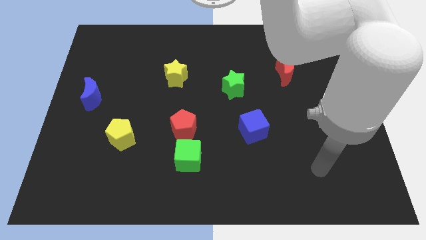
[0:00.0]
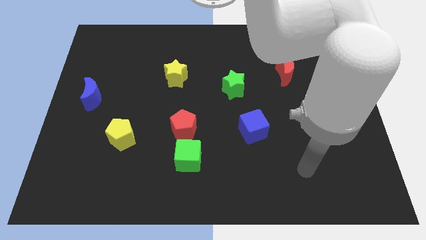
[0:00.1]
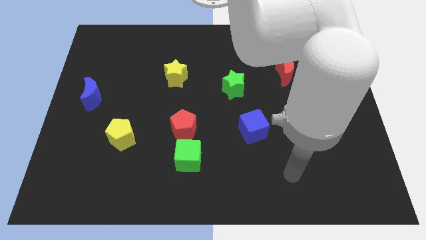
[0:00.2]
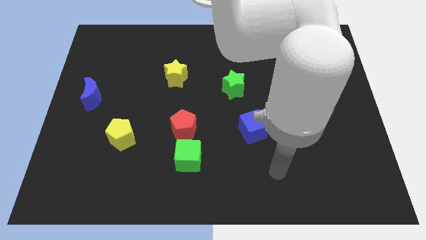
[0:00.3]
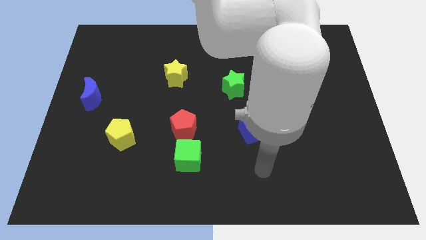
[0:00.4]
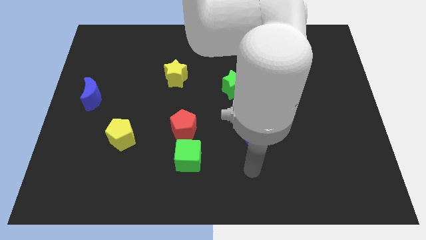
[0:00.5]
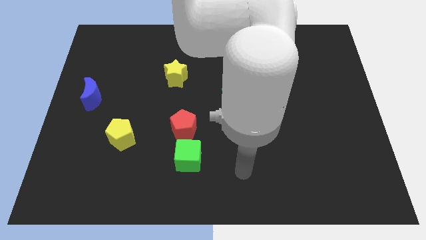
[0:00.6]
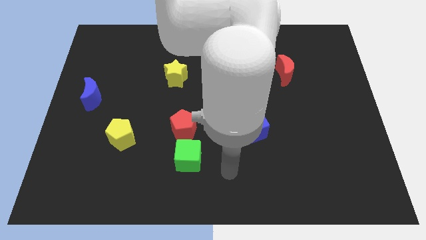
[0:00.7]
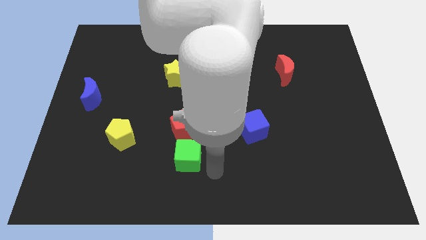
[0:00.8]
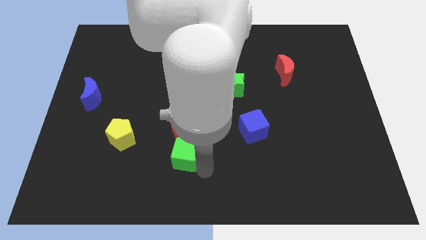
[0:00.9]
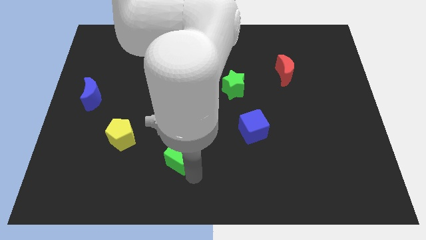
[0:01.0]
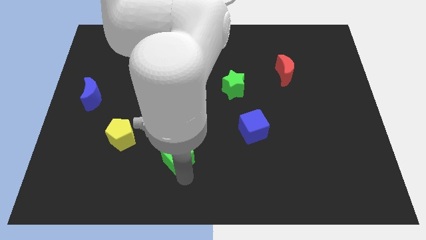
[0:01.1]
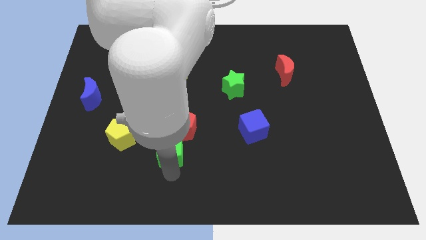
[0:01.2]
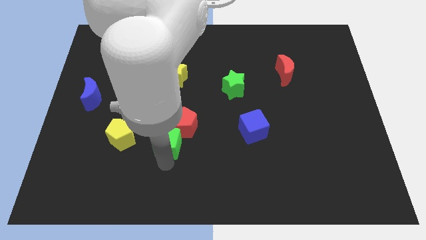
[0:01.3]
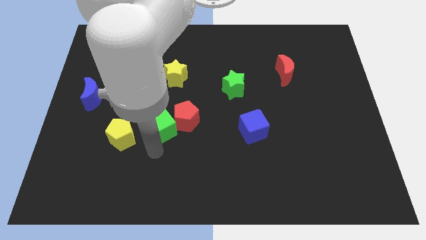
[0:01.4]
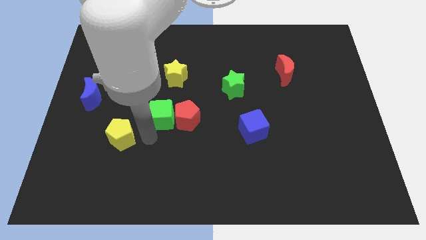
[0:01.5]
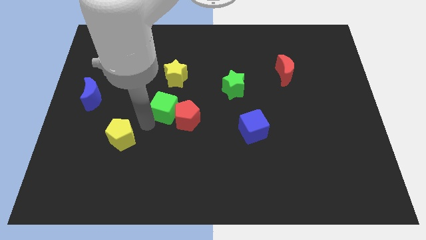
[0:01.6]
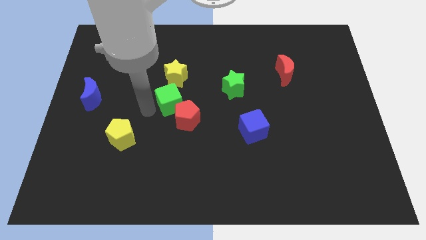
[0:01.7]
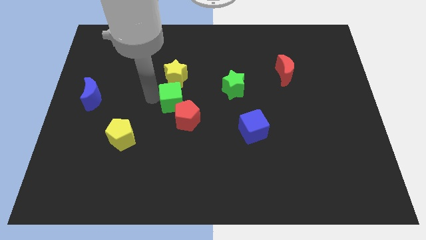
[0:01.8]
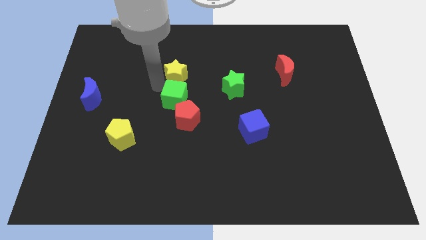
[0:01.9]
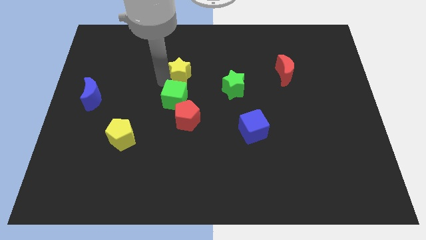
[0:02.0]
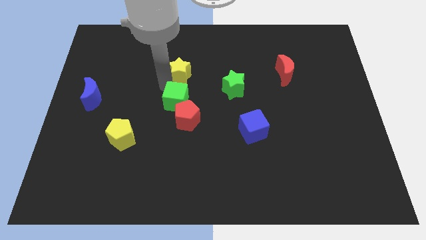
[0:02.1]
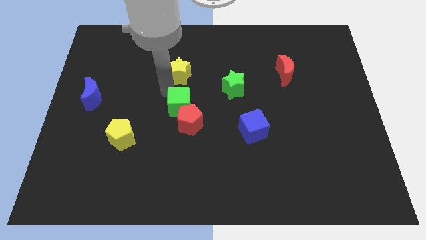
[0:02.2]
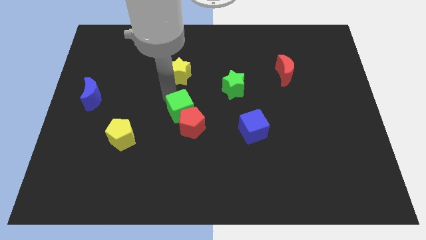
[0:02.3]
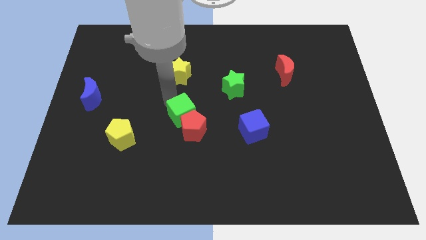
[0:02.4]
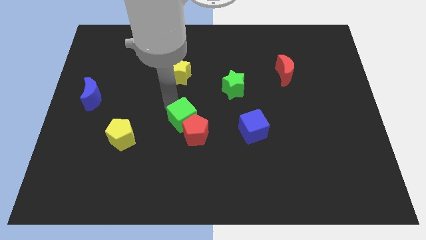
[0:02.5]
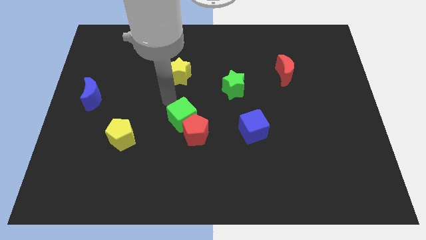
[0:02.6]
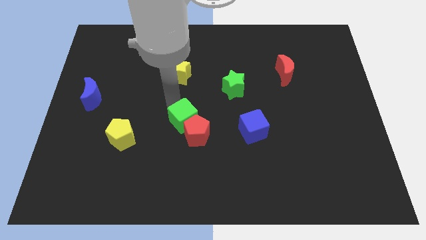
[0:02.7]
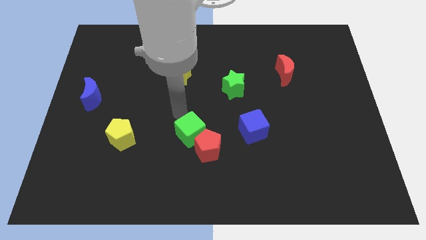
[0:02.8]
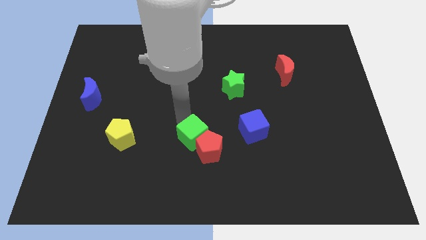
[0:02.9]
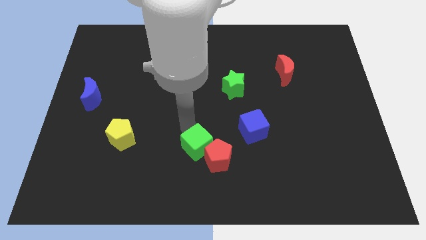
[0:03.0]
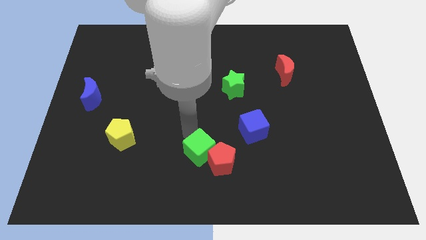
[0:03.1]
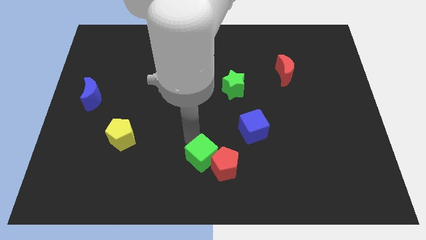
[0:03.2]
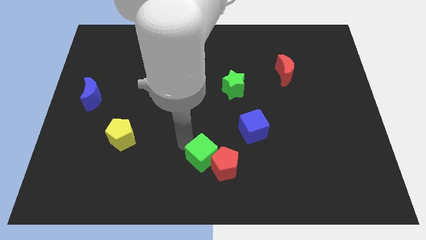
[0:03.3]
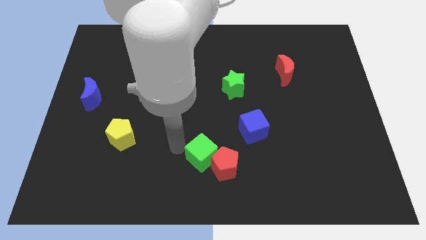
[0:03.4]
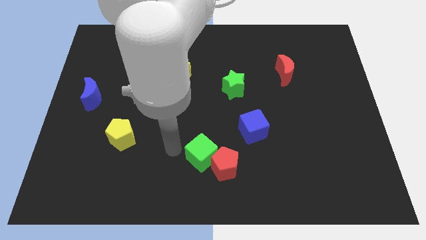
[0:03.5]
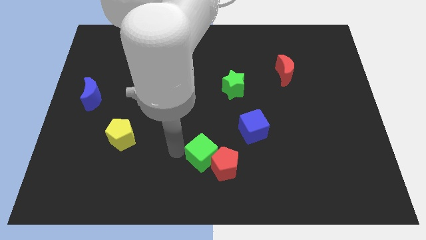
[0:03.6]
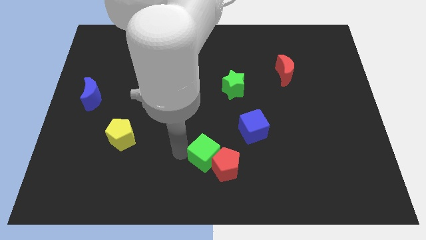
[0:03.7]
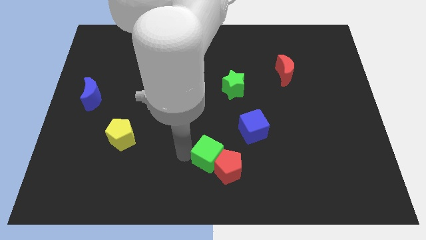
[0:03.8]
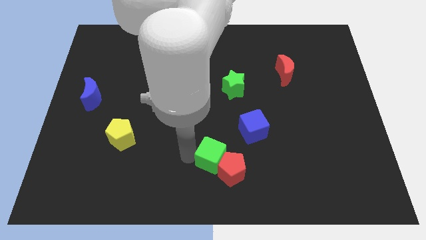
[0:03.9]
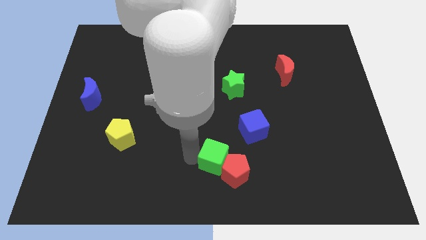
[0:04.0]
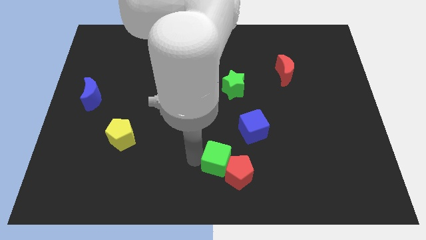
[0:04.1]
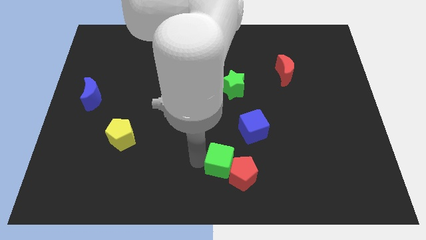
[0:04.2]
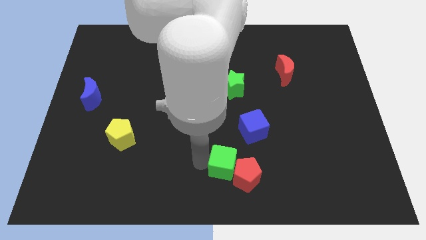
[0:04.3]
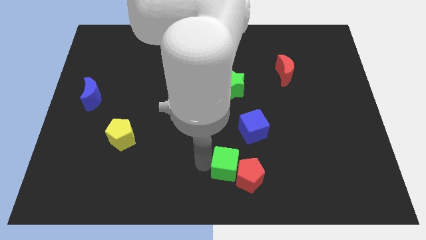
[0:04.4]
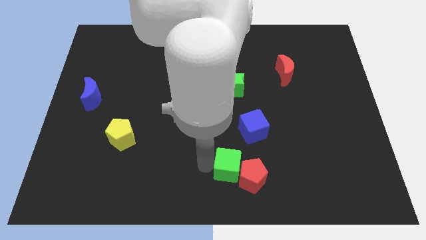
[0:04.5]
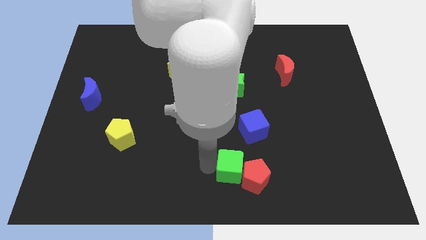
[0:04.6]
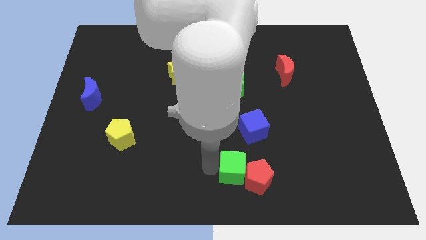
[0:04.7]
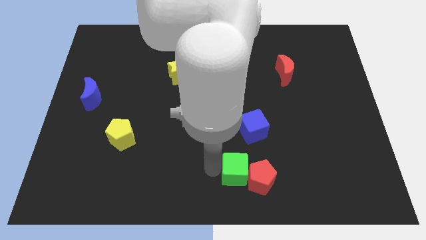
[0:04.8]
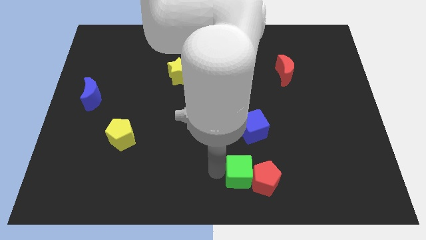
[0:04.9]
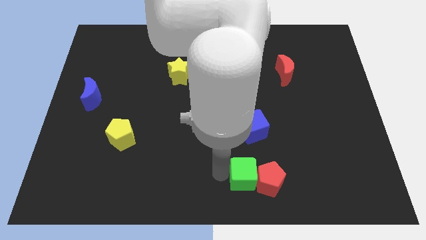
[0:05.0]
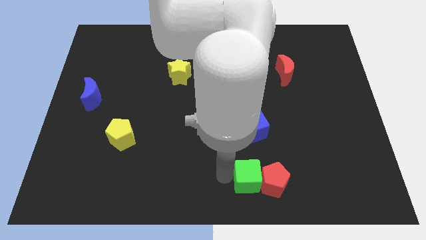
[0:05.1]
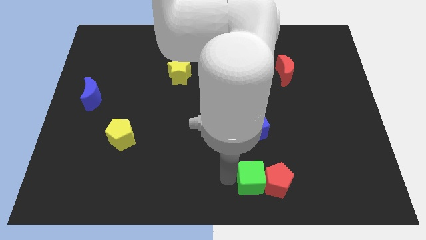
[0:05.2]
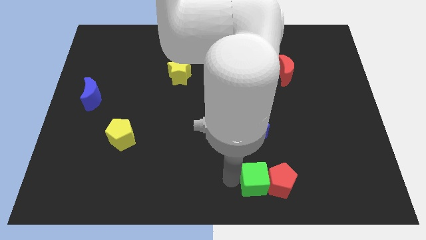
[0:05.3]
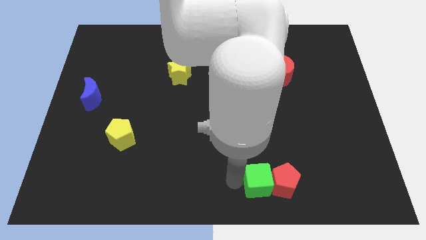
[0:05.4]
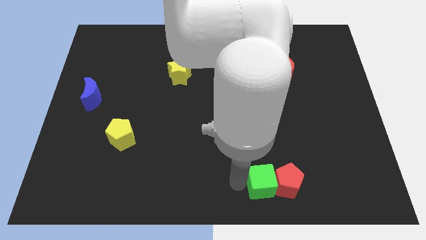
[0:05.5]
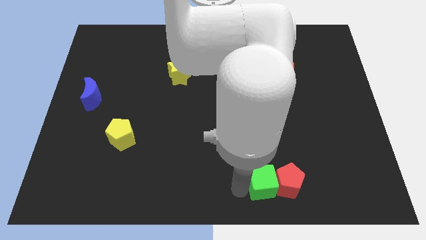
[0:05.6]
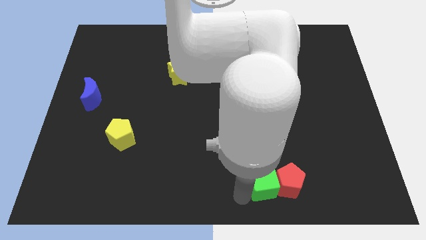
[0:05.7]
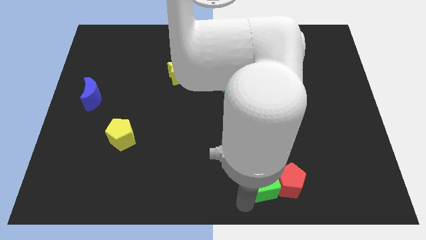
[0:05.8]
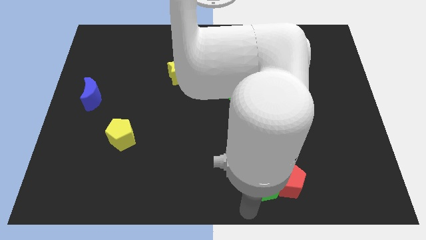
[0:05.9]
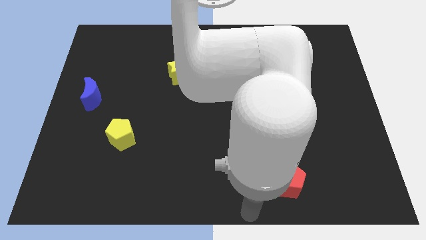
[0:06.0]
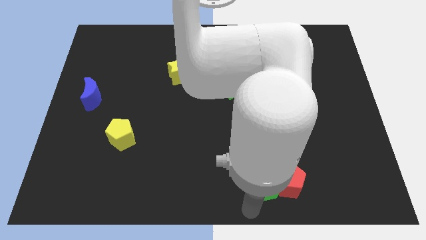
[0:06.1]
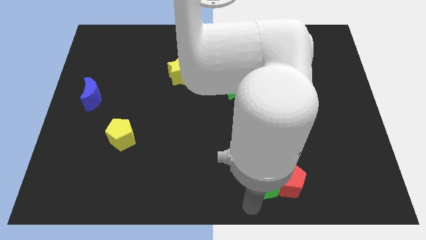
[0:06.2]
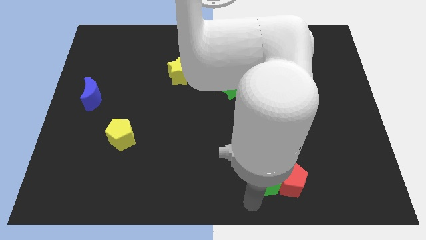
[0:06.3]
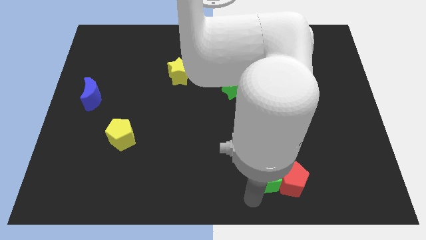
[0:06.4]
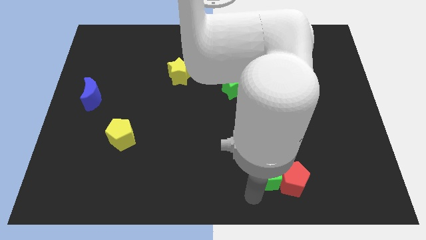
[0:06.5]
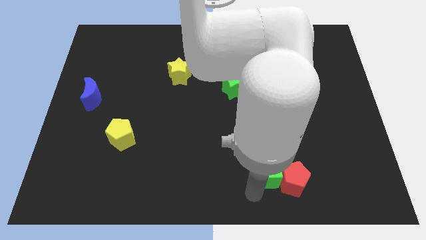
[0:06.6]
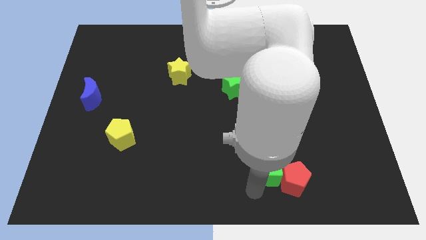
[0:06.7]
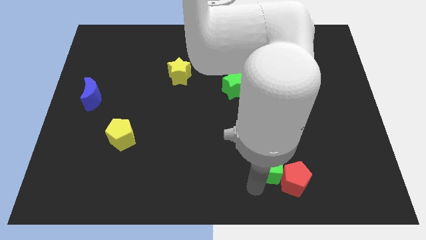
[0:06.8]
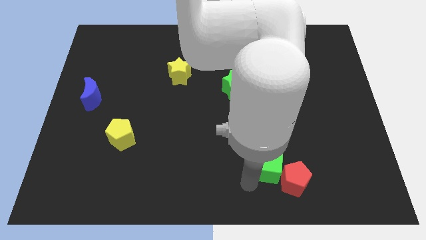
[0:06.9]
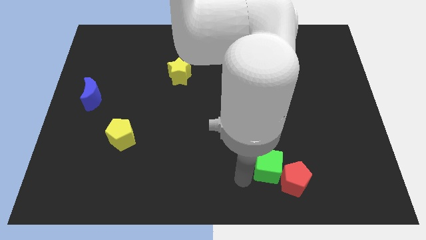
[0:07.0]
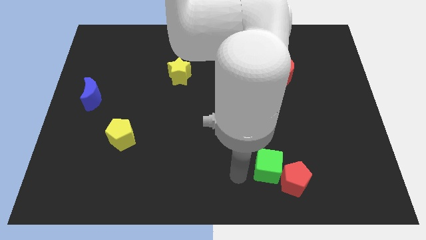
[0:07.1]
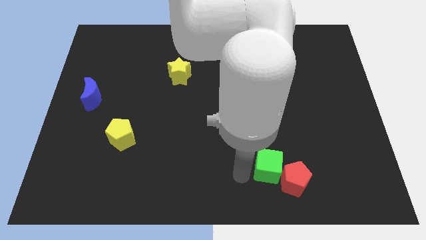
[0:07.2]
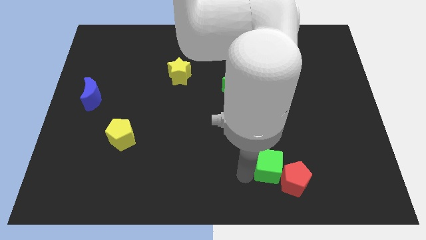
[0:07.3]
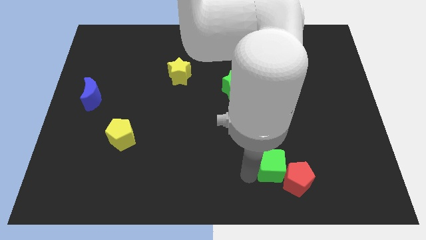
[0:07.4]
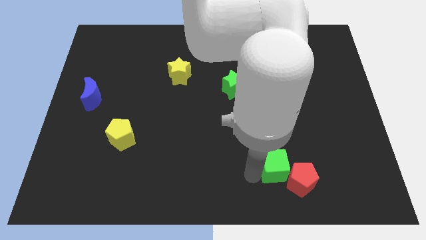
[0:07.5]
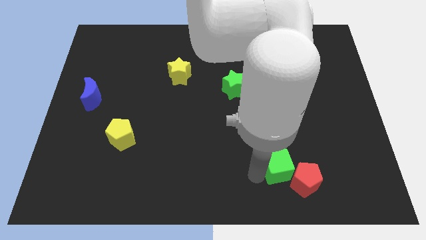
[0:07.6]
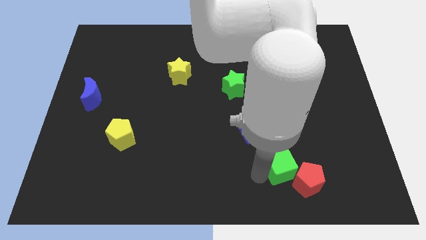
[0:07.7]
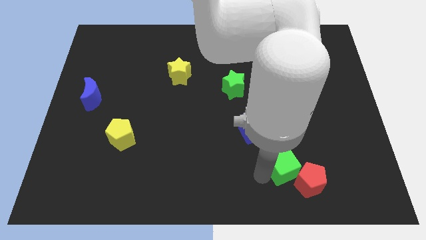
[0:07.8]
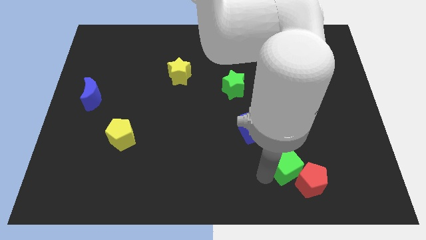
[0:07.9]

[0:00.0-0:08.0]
move the green cube right

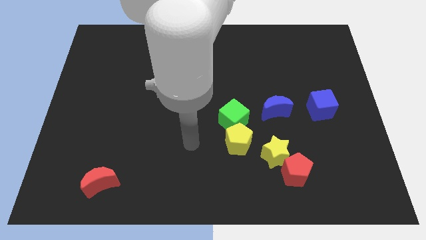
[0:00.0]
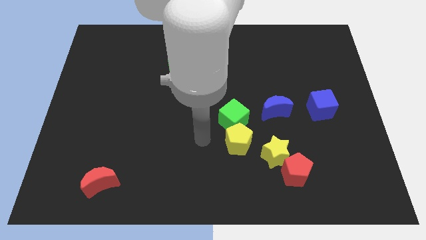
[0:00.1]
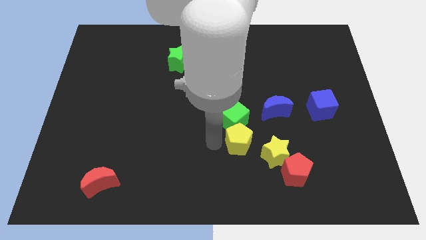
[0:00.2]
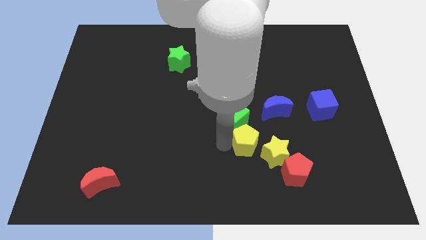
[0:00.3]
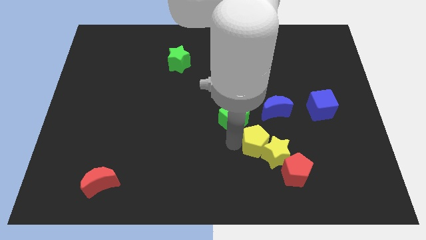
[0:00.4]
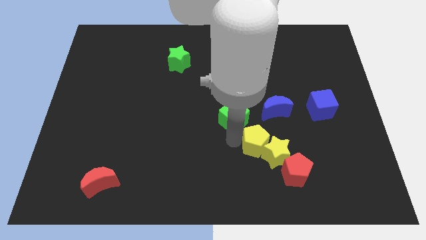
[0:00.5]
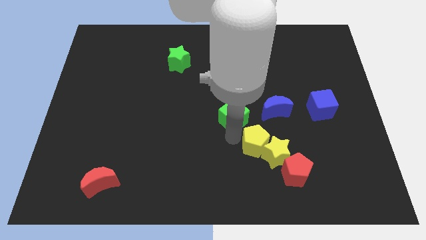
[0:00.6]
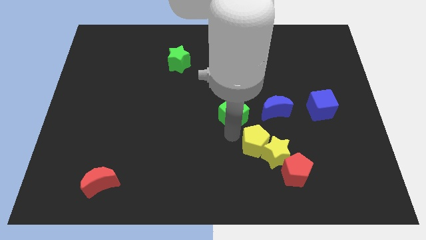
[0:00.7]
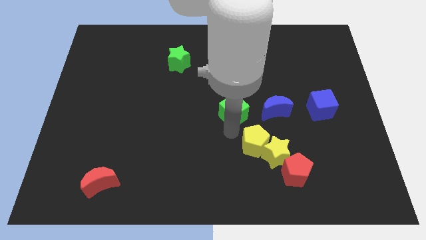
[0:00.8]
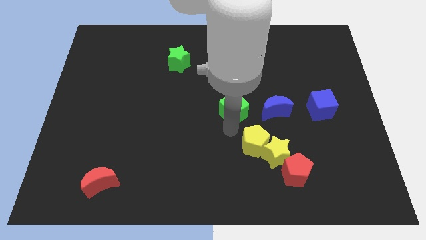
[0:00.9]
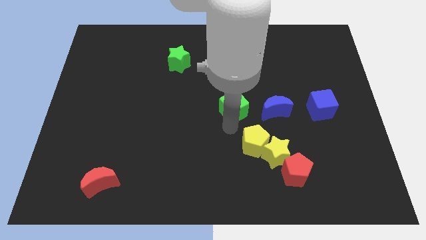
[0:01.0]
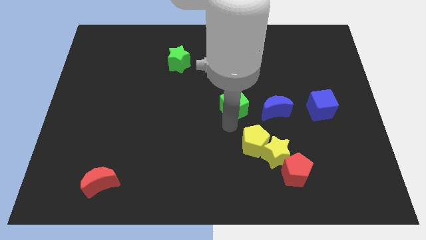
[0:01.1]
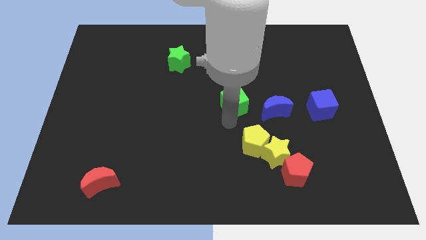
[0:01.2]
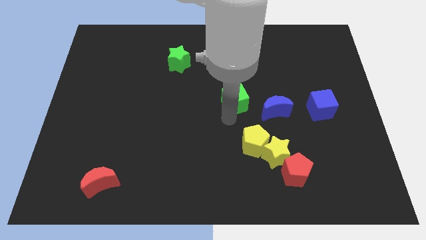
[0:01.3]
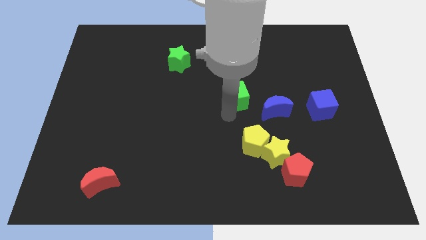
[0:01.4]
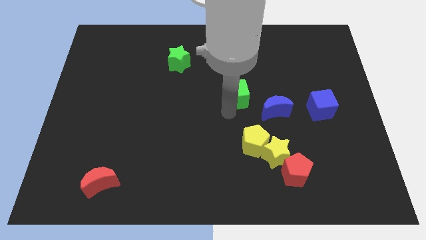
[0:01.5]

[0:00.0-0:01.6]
push the green cube somewhat upwards
